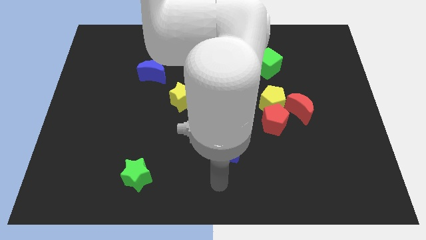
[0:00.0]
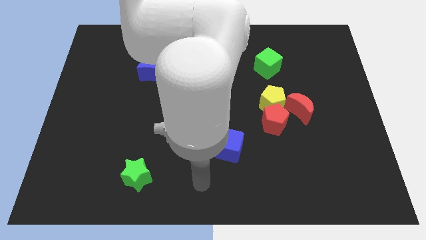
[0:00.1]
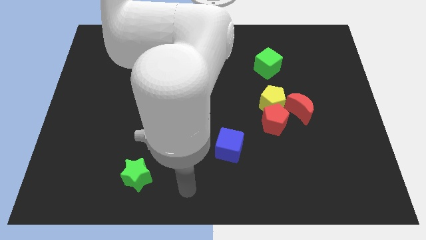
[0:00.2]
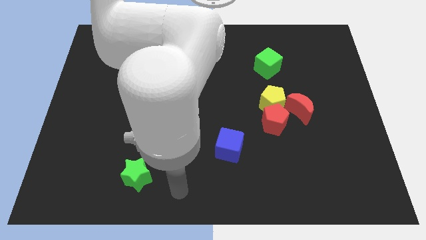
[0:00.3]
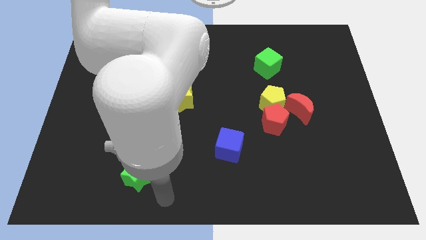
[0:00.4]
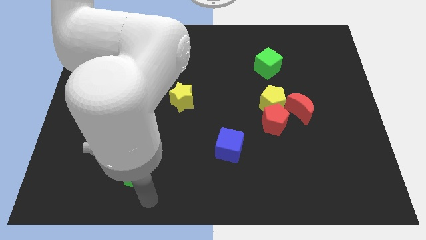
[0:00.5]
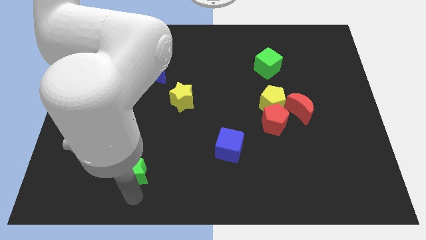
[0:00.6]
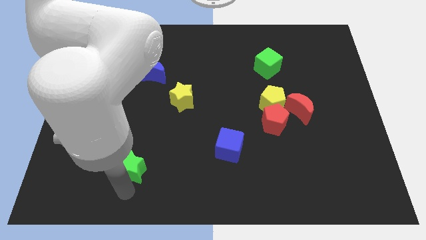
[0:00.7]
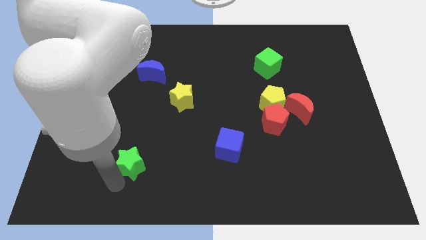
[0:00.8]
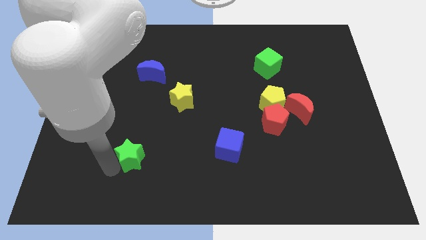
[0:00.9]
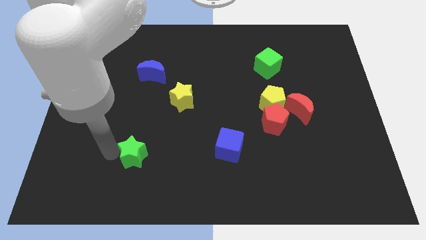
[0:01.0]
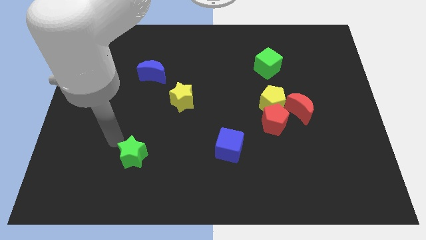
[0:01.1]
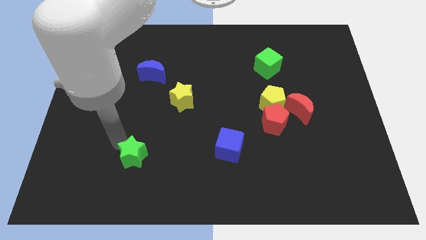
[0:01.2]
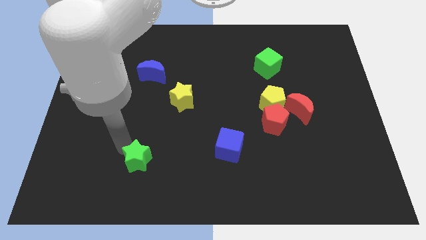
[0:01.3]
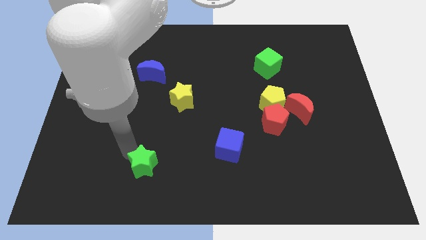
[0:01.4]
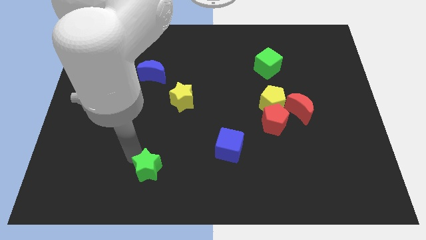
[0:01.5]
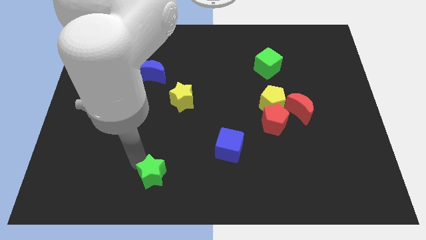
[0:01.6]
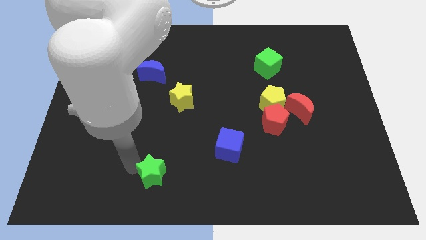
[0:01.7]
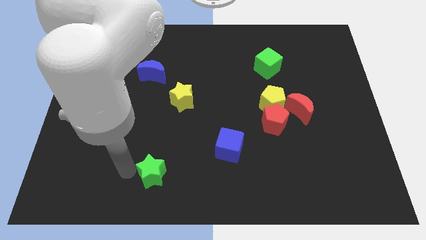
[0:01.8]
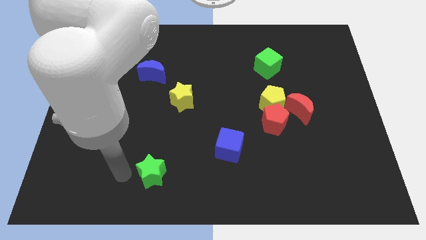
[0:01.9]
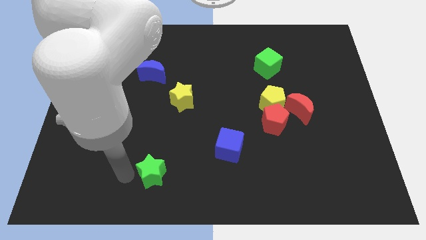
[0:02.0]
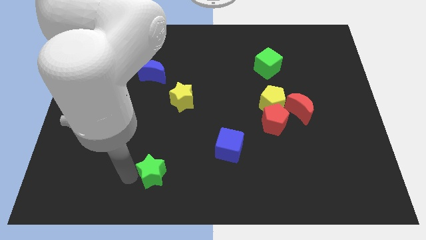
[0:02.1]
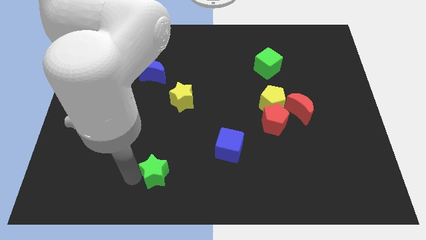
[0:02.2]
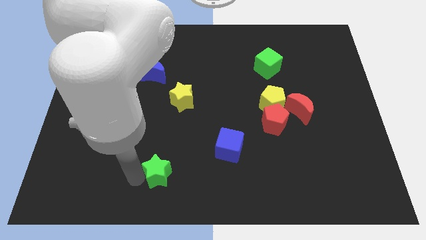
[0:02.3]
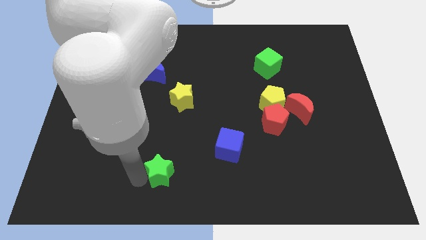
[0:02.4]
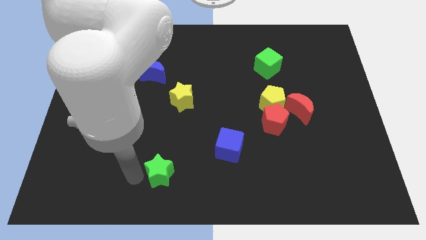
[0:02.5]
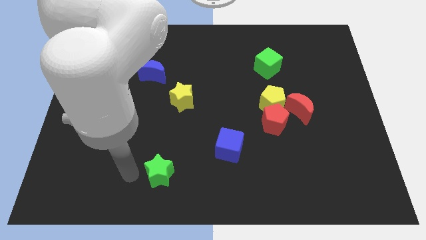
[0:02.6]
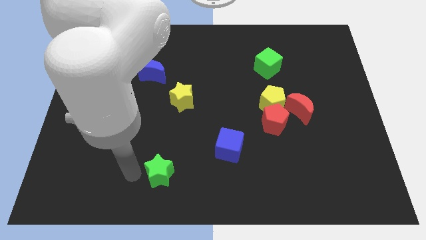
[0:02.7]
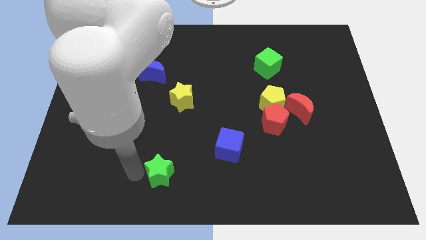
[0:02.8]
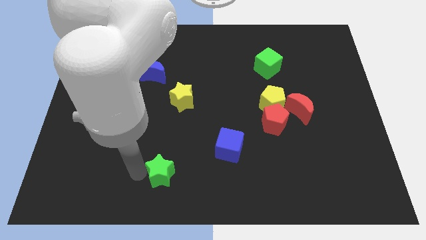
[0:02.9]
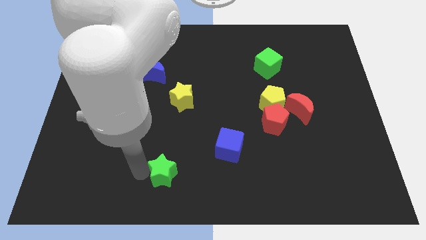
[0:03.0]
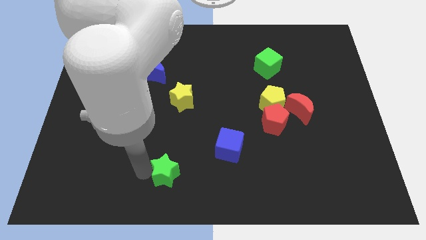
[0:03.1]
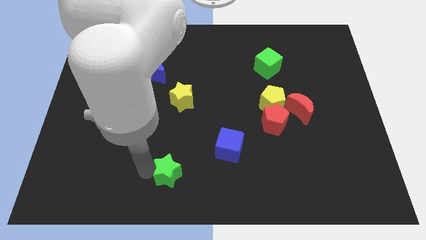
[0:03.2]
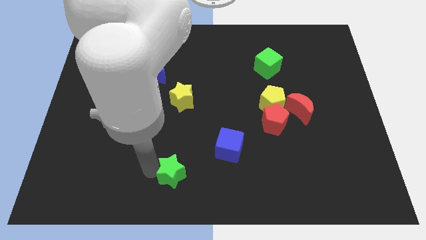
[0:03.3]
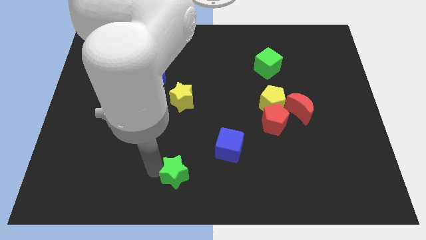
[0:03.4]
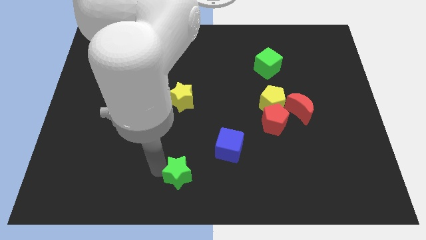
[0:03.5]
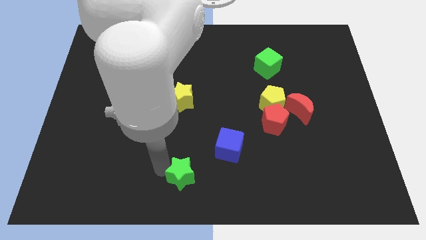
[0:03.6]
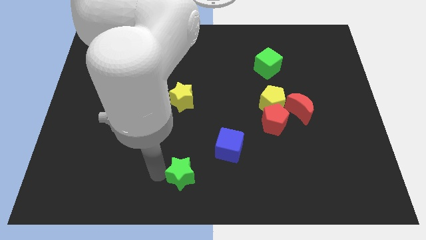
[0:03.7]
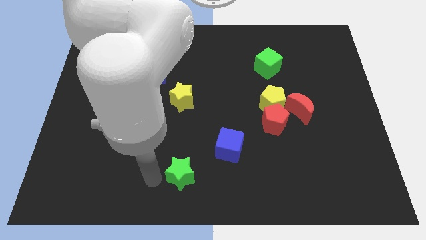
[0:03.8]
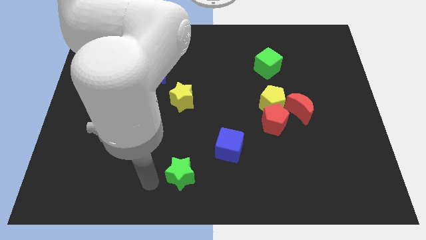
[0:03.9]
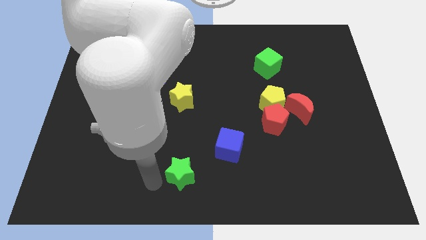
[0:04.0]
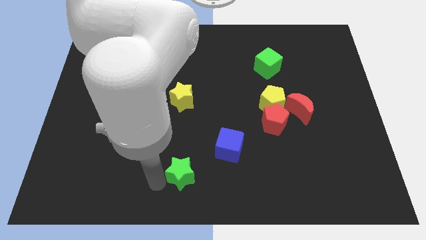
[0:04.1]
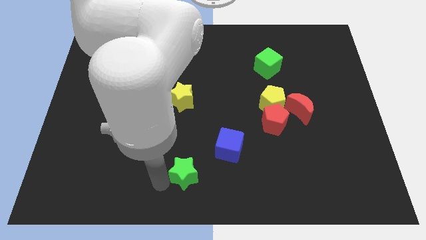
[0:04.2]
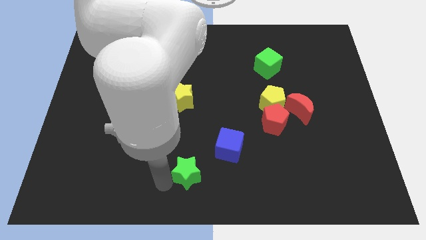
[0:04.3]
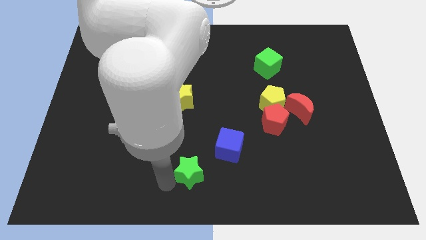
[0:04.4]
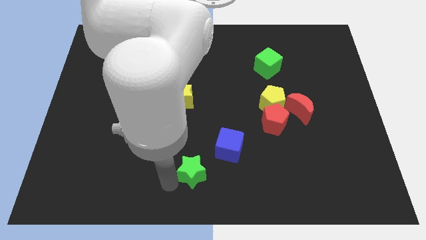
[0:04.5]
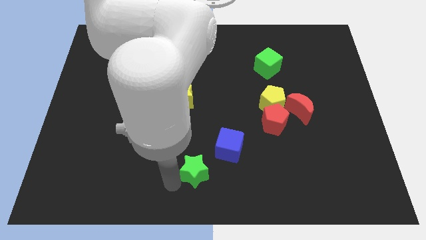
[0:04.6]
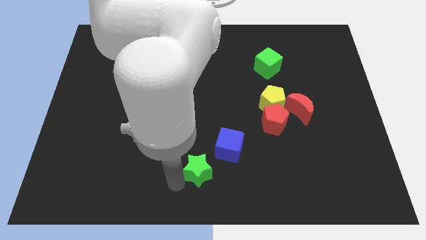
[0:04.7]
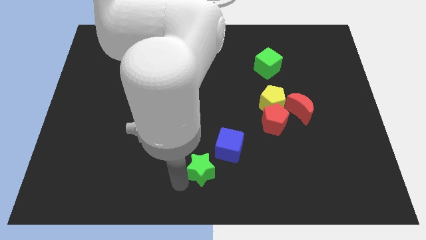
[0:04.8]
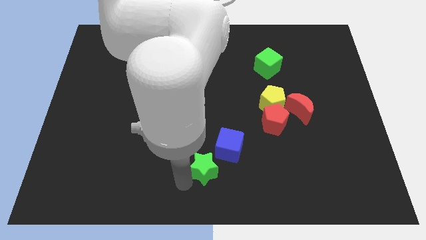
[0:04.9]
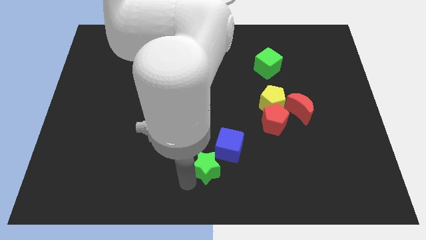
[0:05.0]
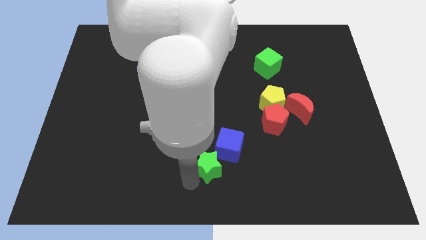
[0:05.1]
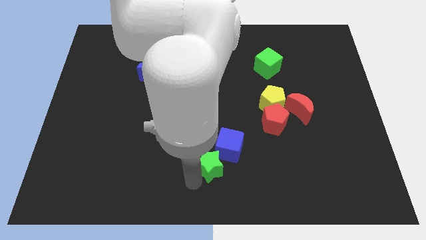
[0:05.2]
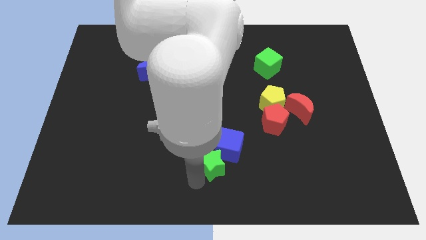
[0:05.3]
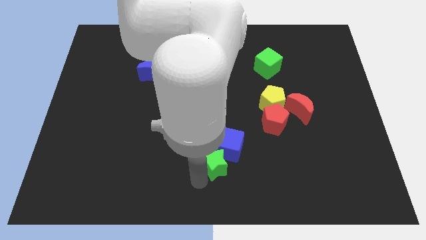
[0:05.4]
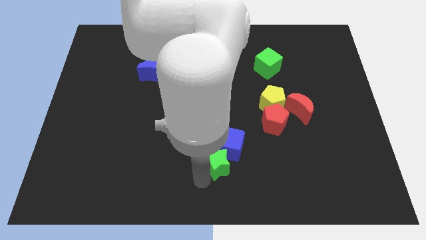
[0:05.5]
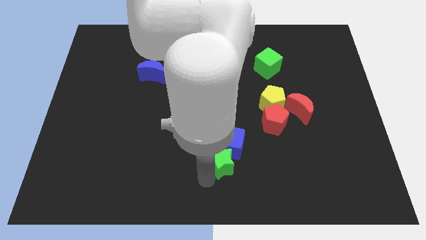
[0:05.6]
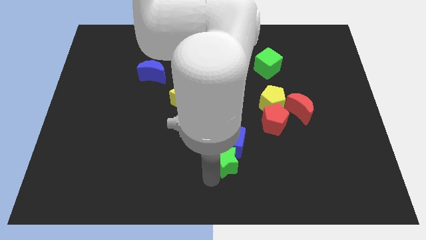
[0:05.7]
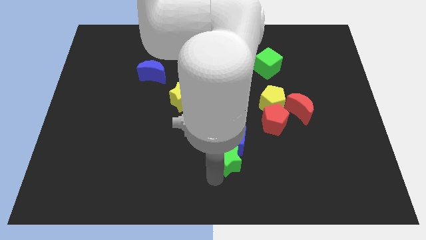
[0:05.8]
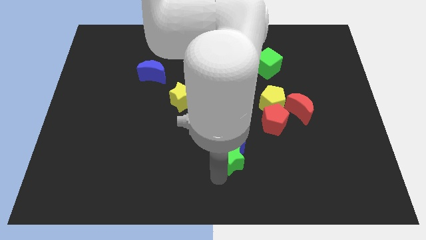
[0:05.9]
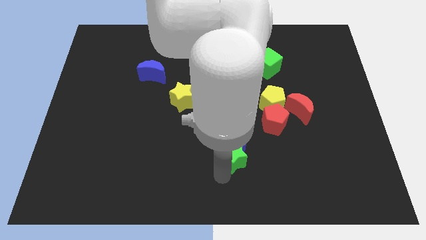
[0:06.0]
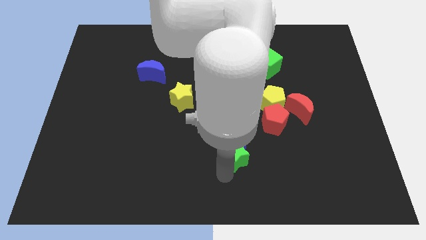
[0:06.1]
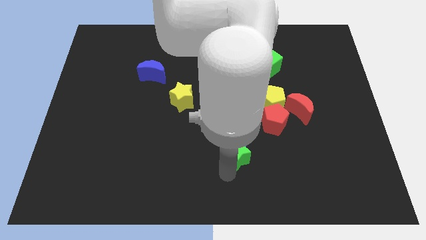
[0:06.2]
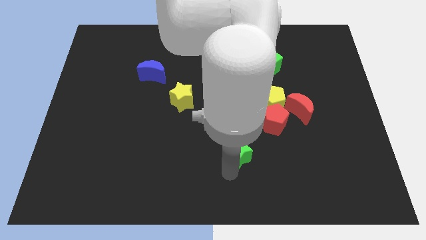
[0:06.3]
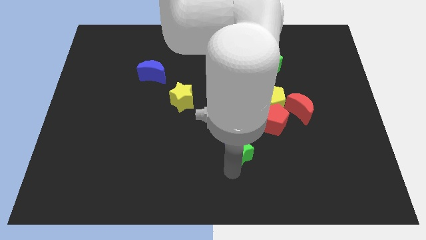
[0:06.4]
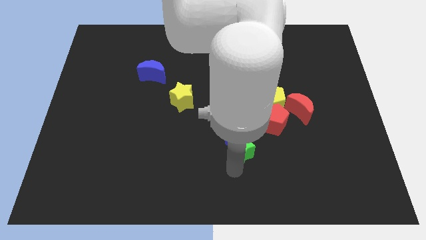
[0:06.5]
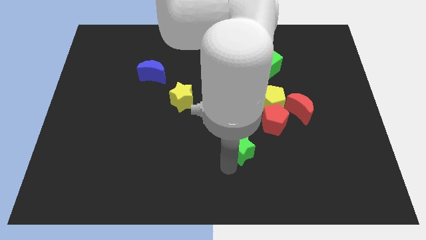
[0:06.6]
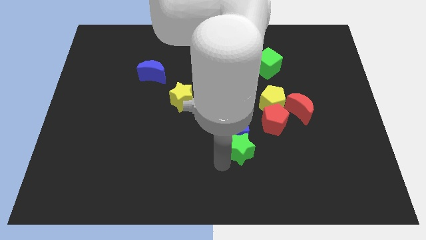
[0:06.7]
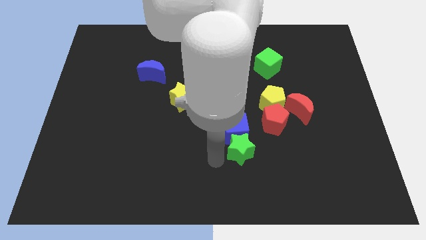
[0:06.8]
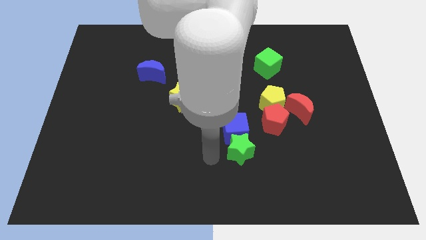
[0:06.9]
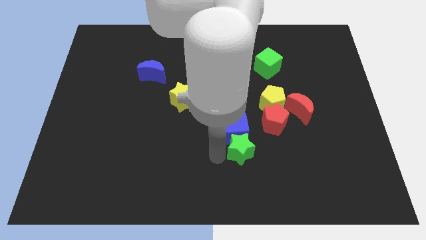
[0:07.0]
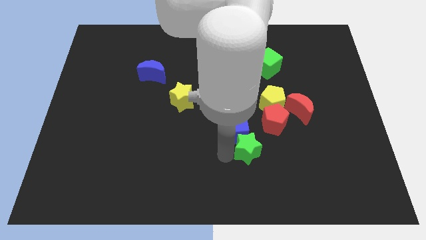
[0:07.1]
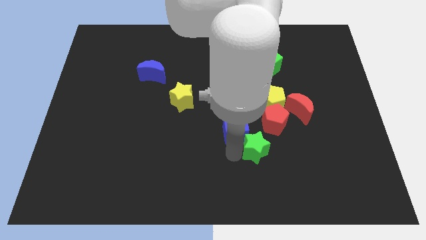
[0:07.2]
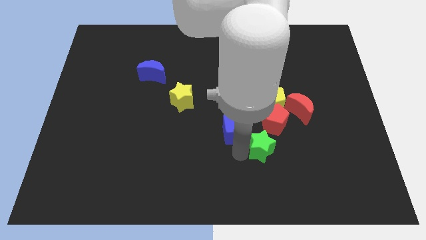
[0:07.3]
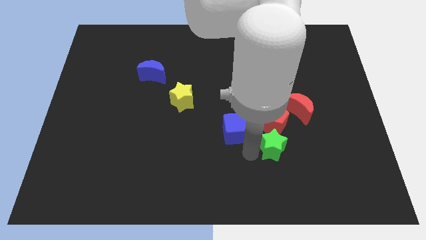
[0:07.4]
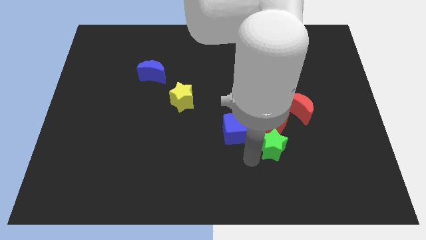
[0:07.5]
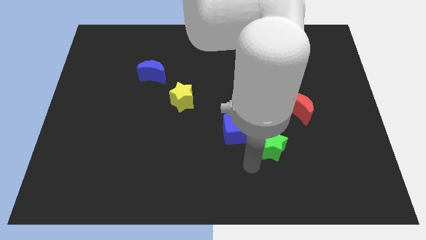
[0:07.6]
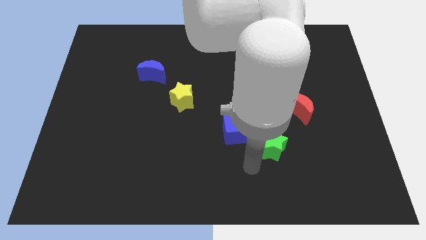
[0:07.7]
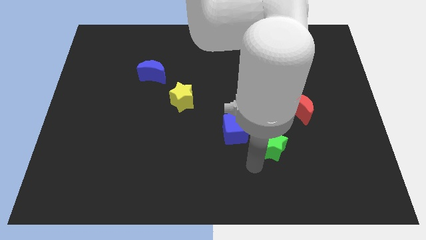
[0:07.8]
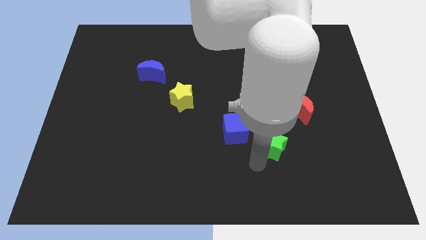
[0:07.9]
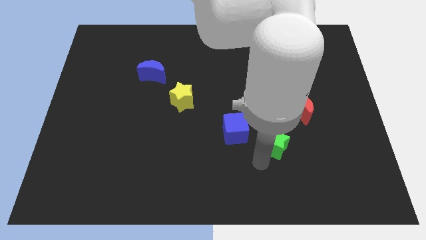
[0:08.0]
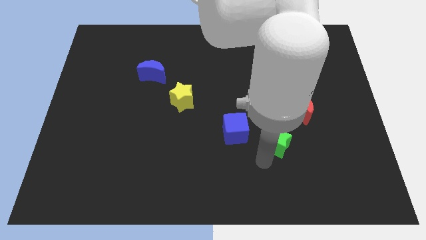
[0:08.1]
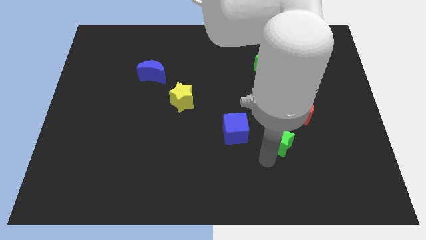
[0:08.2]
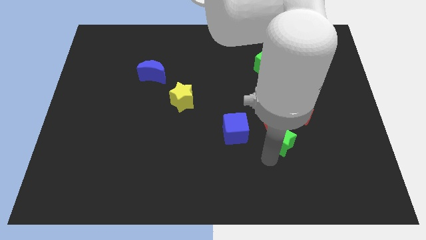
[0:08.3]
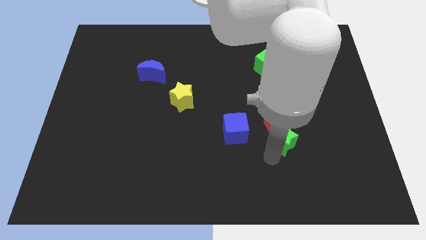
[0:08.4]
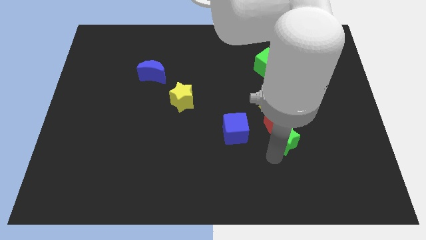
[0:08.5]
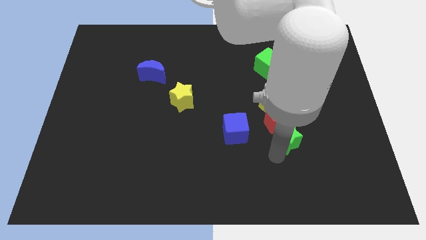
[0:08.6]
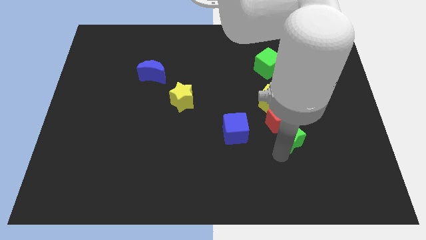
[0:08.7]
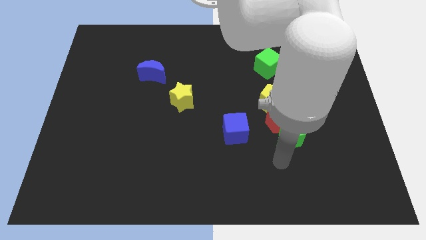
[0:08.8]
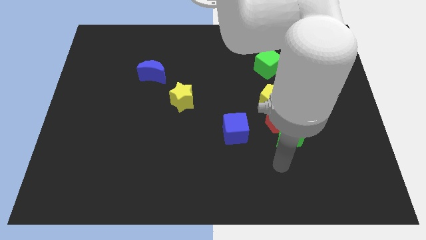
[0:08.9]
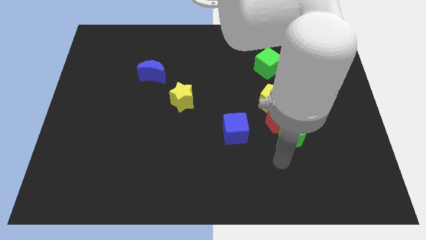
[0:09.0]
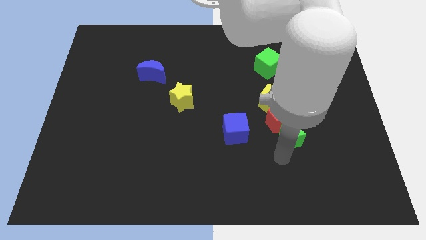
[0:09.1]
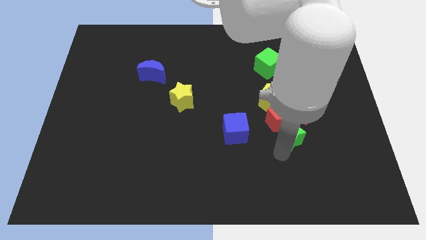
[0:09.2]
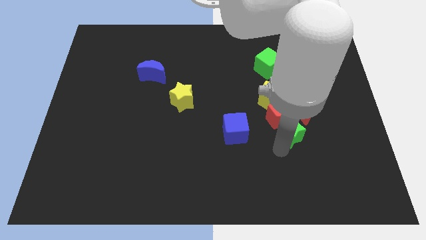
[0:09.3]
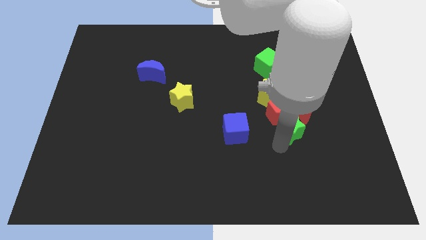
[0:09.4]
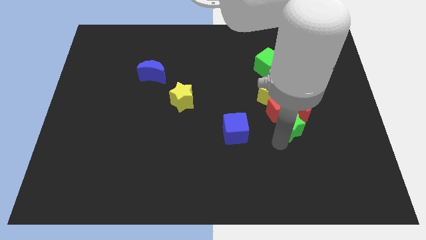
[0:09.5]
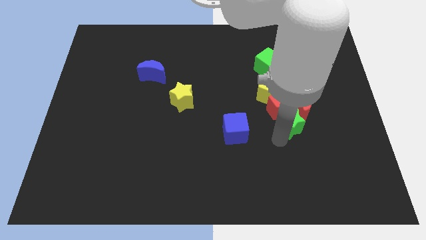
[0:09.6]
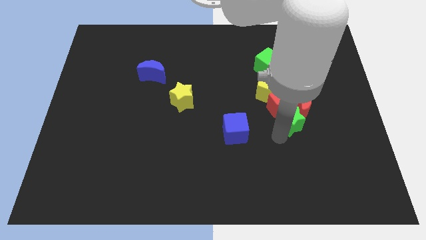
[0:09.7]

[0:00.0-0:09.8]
push the green star towards the red moon
